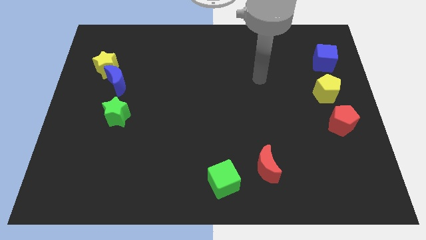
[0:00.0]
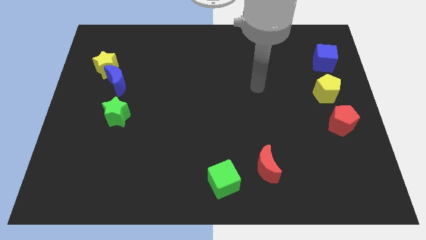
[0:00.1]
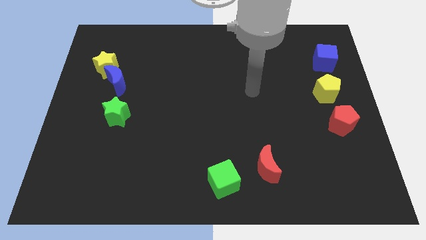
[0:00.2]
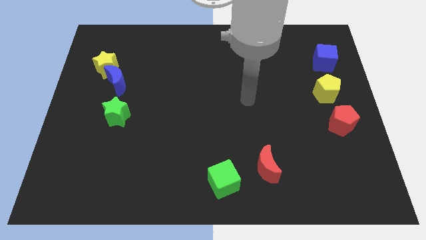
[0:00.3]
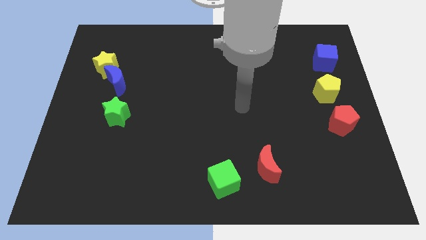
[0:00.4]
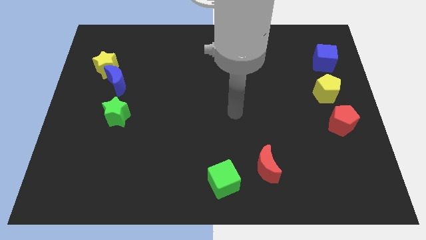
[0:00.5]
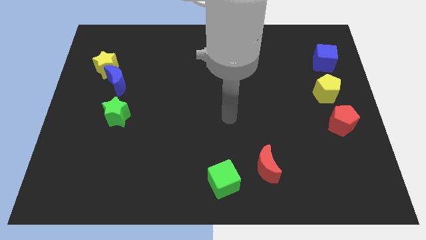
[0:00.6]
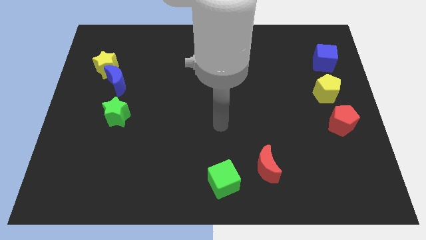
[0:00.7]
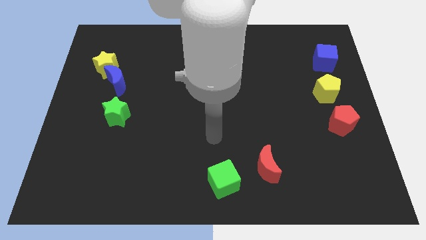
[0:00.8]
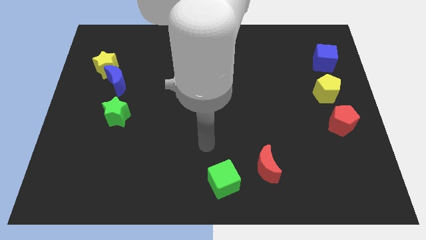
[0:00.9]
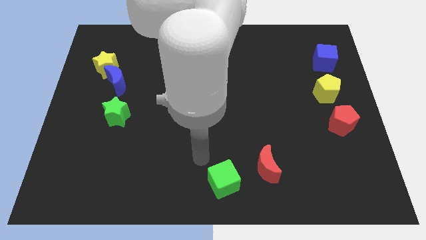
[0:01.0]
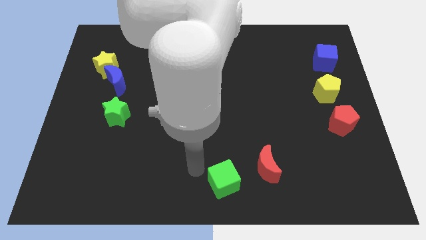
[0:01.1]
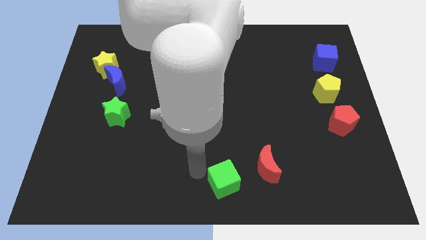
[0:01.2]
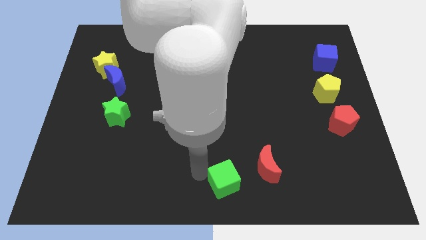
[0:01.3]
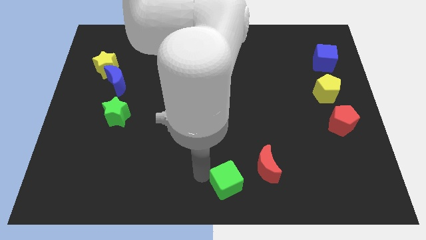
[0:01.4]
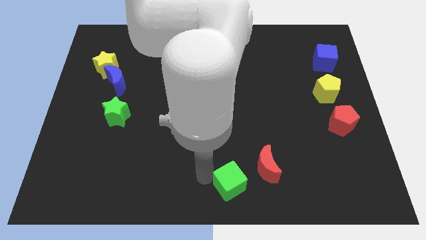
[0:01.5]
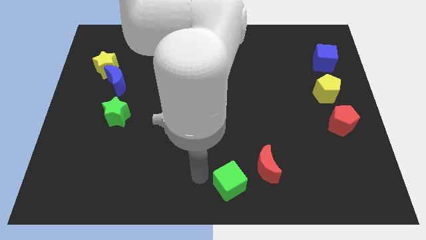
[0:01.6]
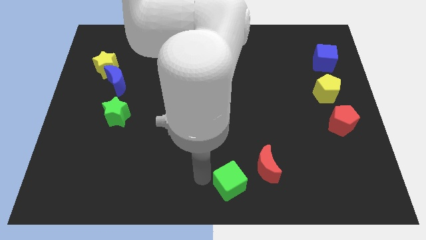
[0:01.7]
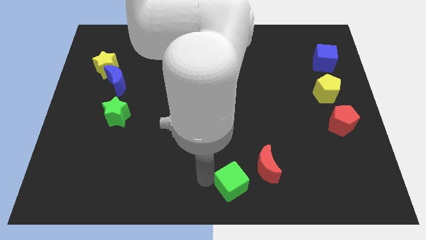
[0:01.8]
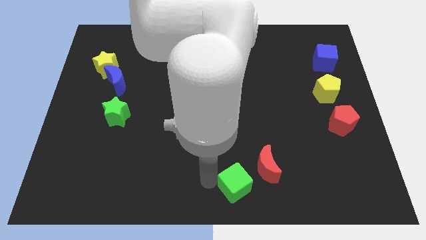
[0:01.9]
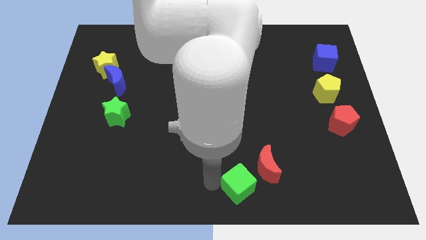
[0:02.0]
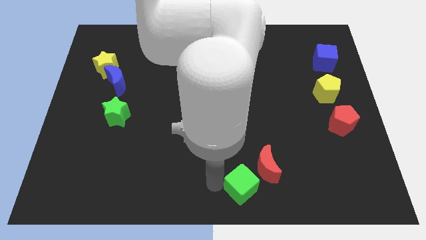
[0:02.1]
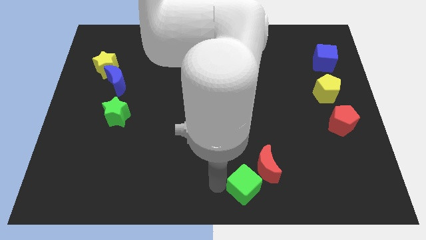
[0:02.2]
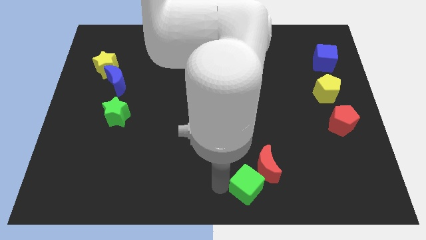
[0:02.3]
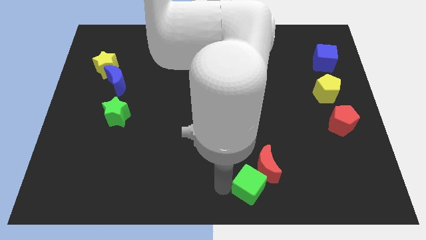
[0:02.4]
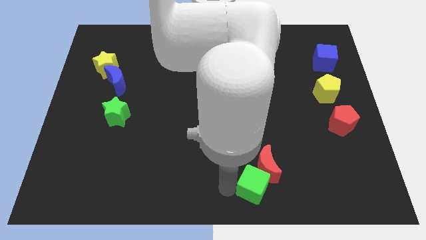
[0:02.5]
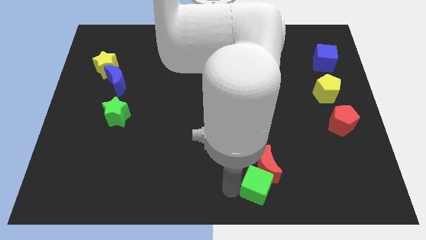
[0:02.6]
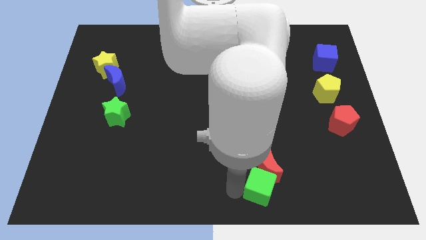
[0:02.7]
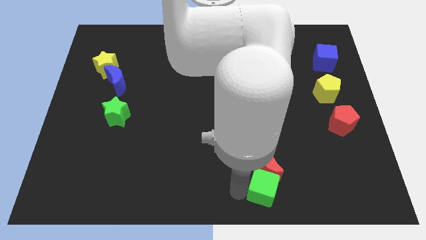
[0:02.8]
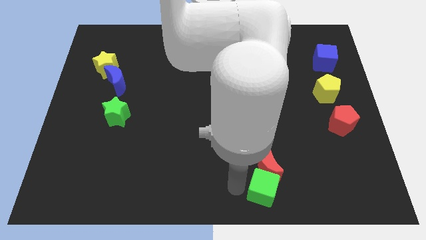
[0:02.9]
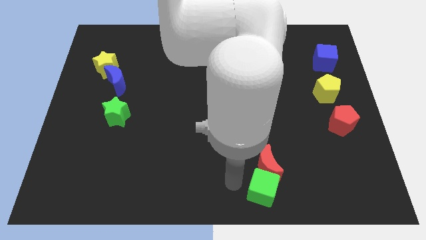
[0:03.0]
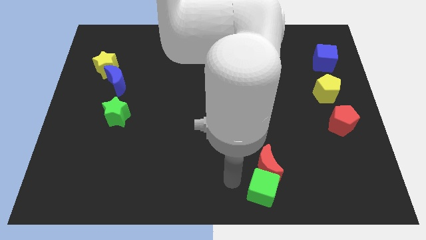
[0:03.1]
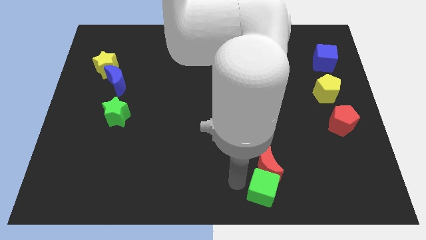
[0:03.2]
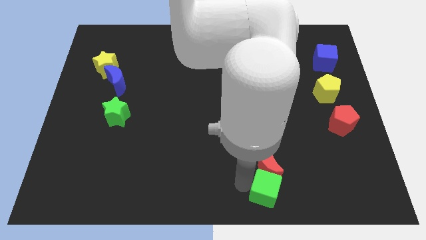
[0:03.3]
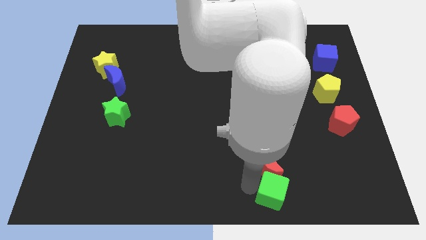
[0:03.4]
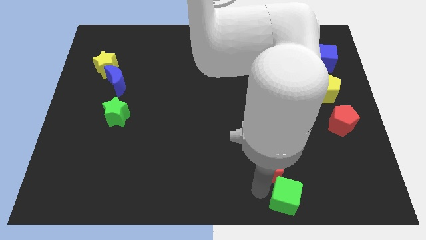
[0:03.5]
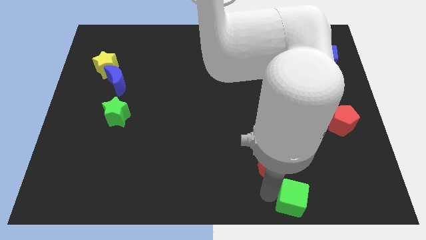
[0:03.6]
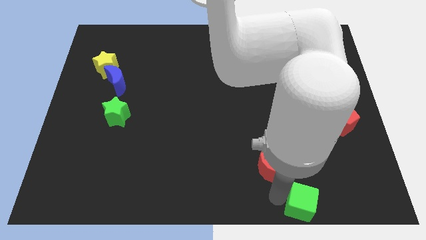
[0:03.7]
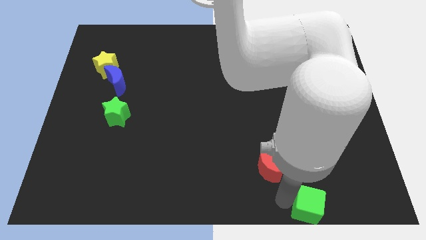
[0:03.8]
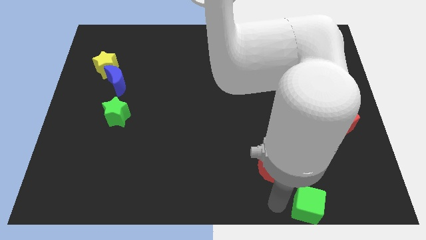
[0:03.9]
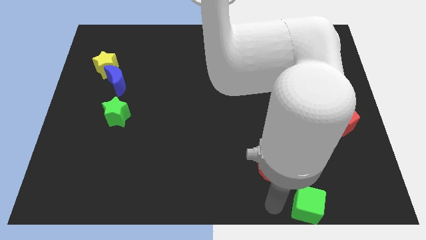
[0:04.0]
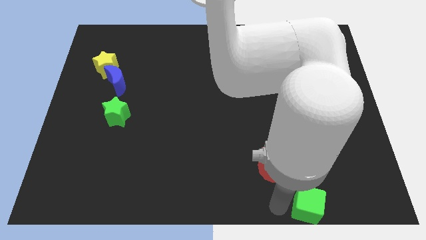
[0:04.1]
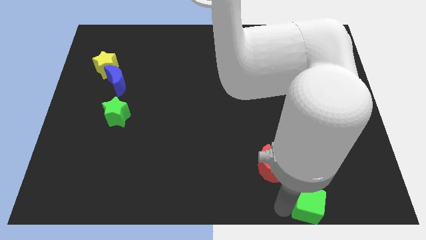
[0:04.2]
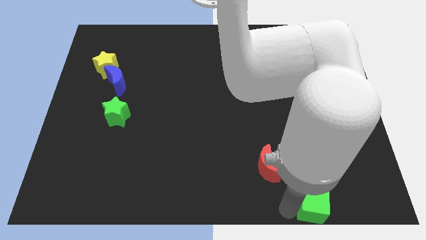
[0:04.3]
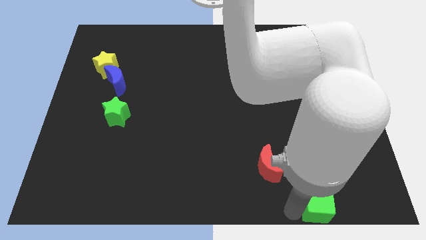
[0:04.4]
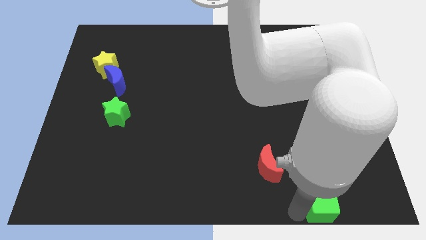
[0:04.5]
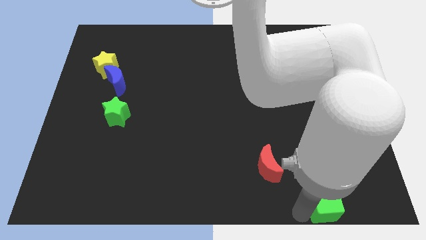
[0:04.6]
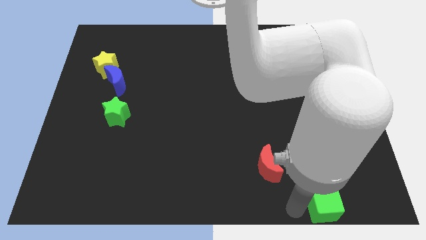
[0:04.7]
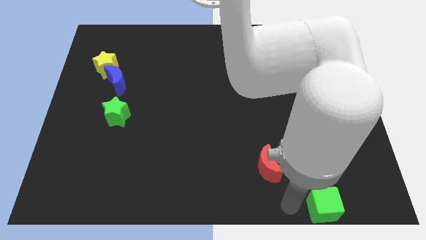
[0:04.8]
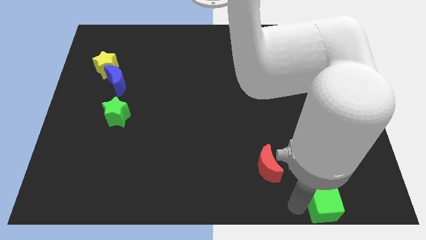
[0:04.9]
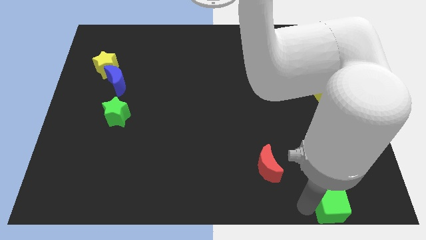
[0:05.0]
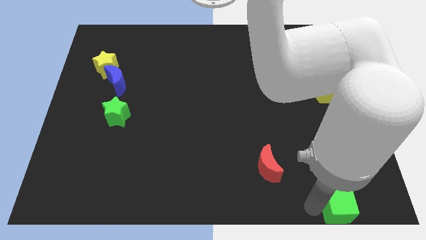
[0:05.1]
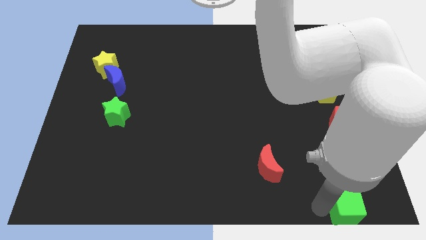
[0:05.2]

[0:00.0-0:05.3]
put the green cube to the bottom right

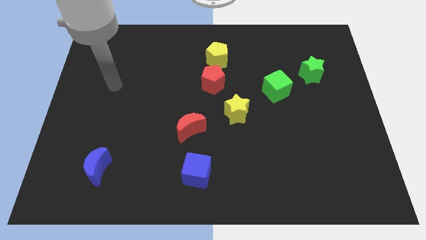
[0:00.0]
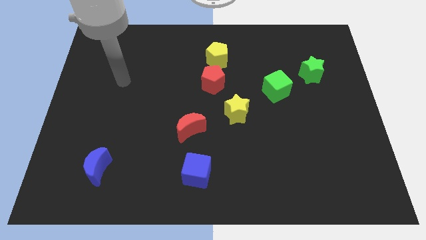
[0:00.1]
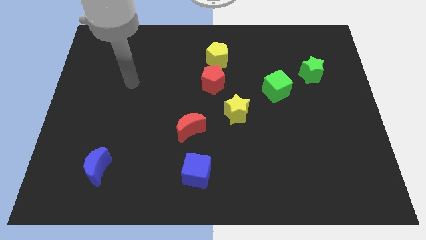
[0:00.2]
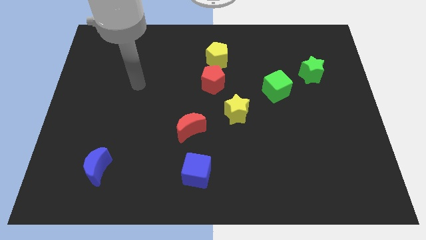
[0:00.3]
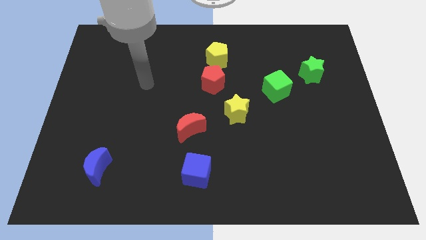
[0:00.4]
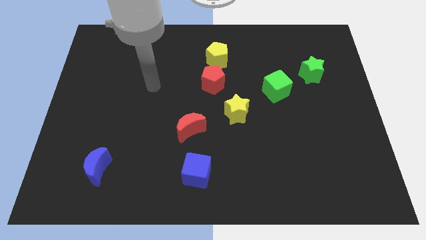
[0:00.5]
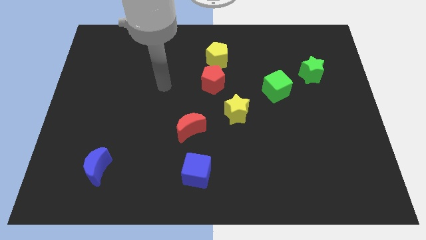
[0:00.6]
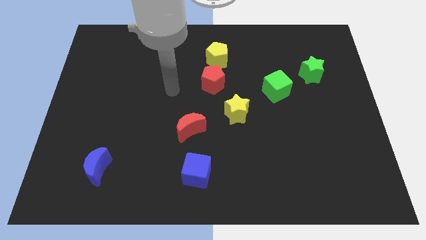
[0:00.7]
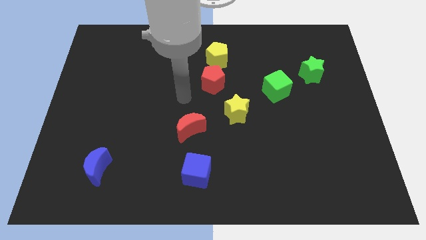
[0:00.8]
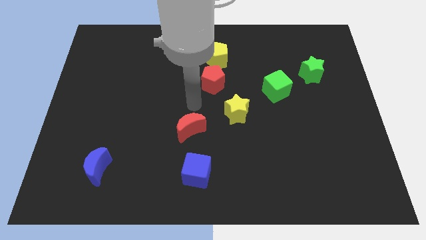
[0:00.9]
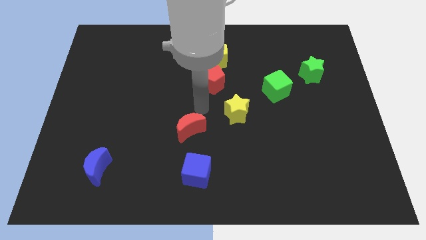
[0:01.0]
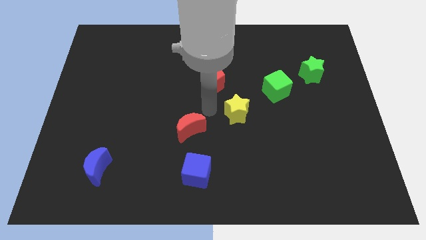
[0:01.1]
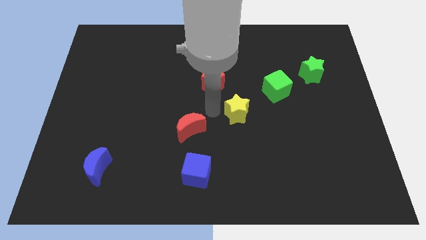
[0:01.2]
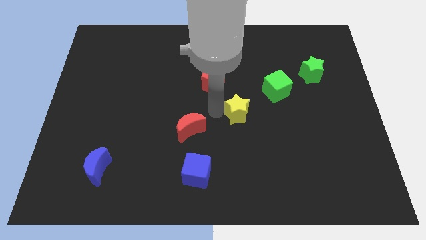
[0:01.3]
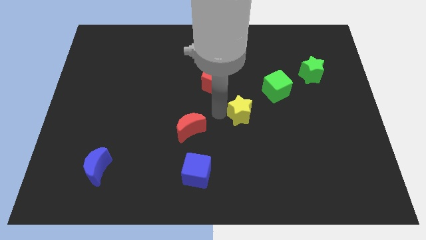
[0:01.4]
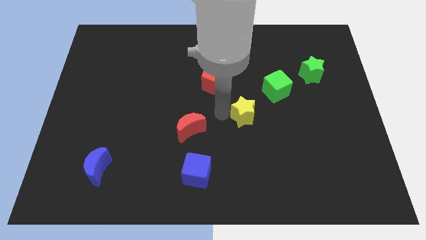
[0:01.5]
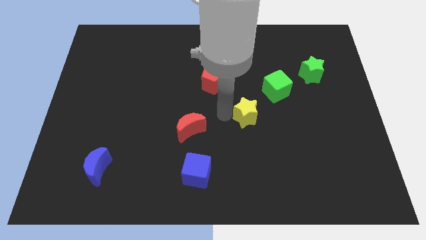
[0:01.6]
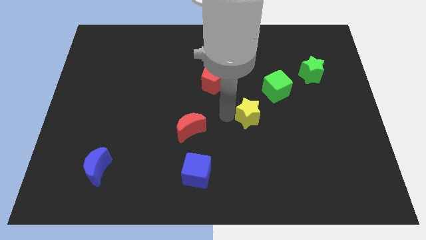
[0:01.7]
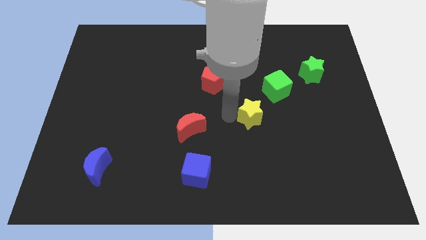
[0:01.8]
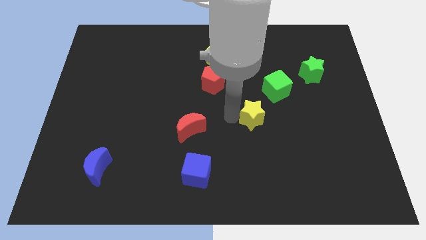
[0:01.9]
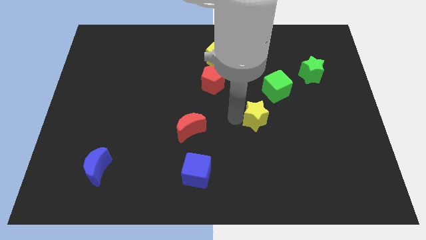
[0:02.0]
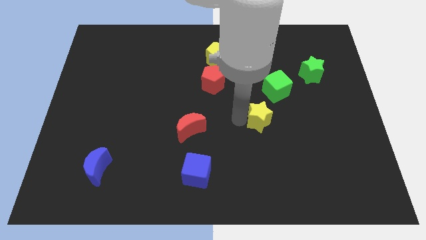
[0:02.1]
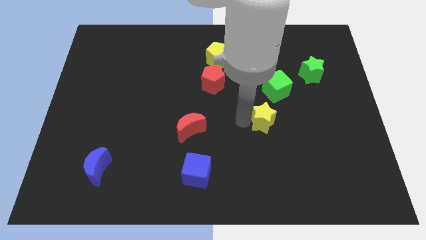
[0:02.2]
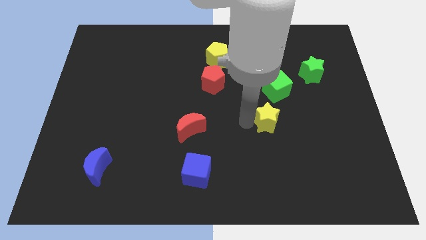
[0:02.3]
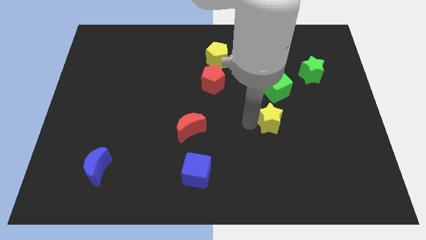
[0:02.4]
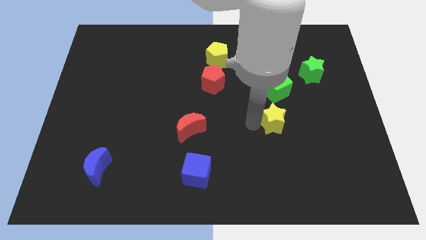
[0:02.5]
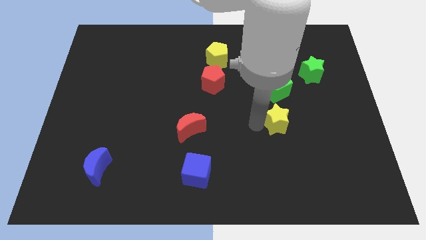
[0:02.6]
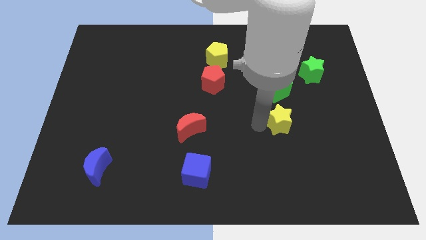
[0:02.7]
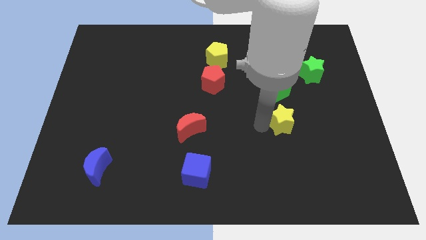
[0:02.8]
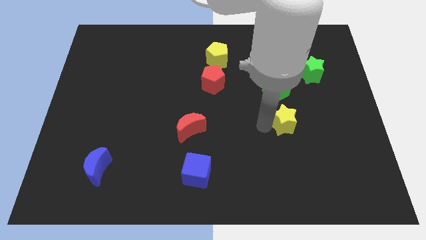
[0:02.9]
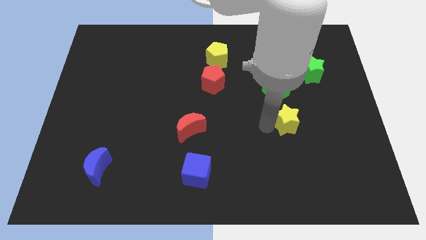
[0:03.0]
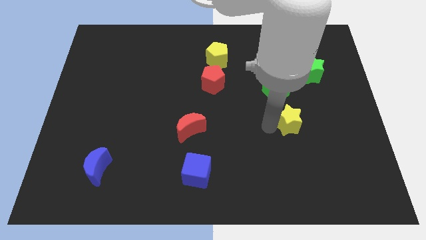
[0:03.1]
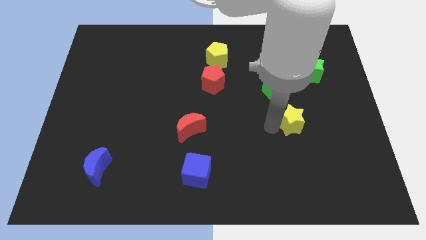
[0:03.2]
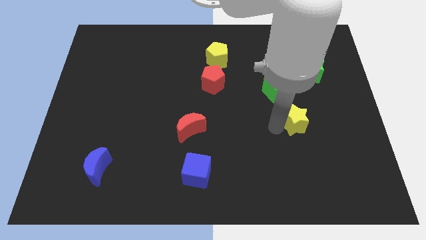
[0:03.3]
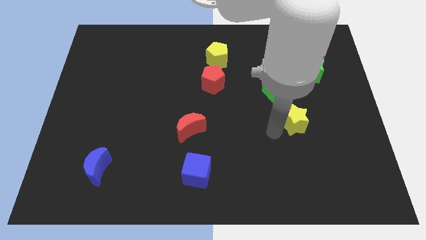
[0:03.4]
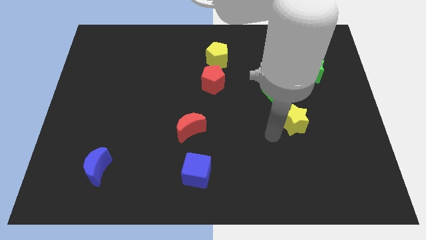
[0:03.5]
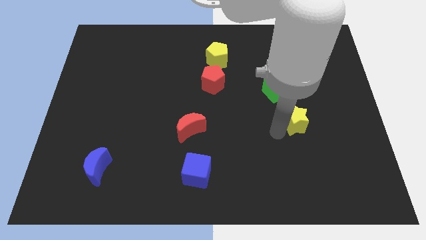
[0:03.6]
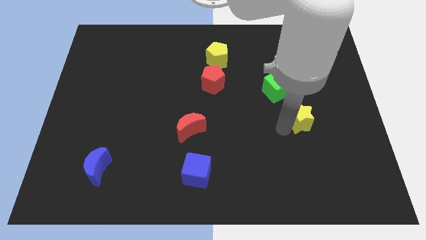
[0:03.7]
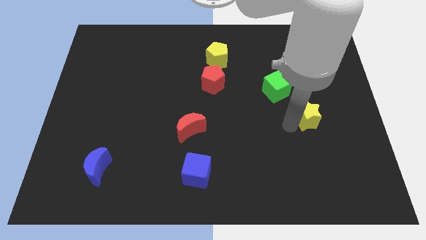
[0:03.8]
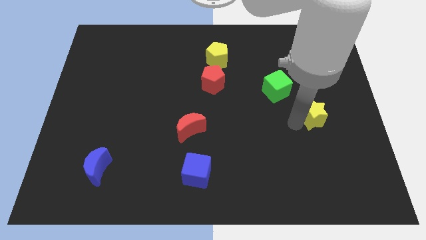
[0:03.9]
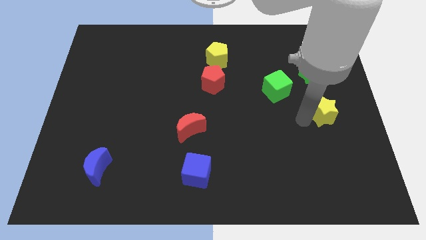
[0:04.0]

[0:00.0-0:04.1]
push the yellow star to the center right
